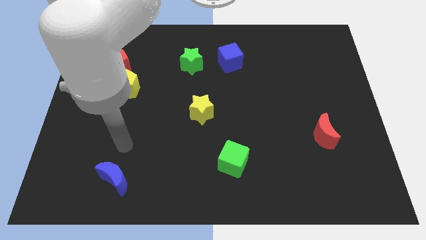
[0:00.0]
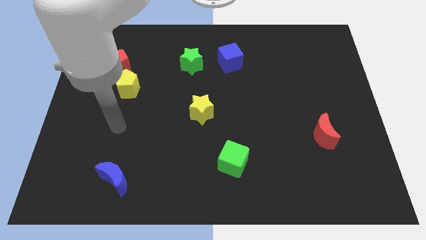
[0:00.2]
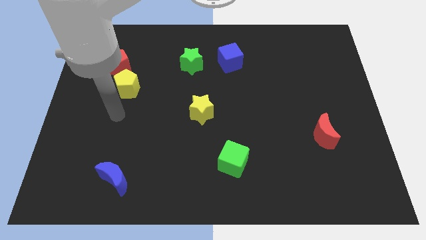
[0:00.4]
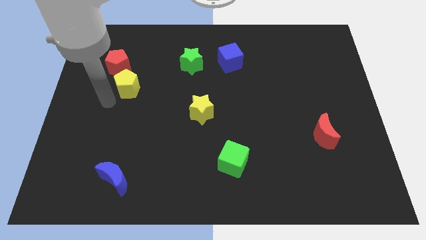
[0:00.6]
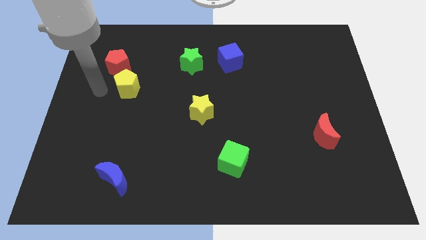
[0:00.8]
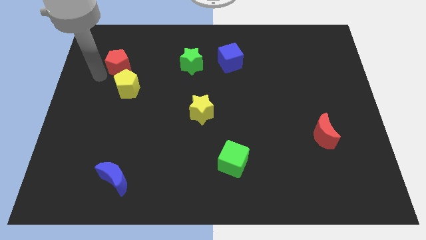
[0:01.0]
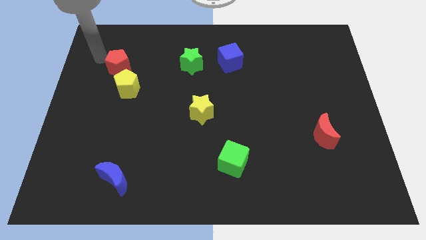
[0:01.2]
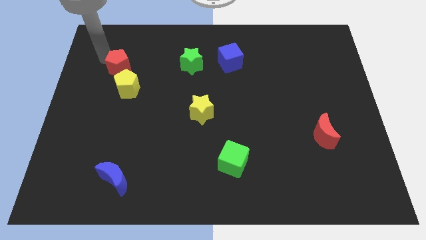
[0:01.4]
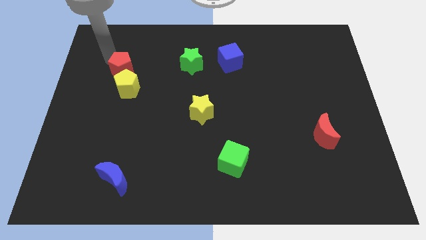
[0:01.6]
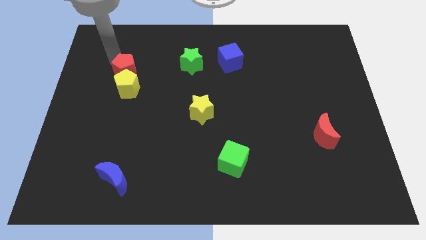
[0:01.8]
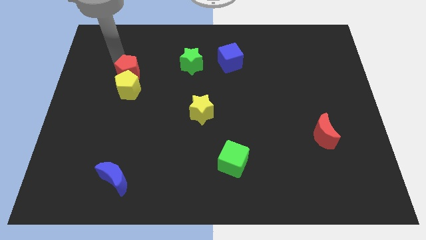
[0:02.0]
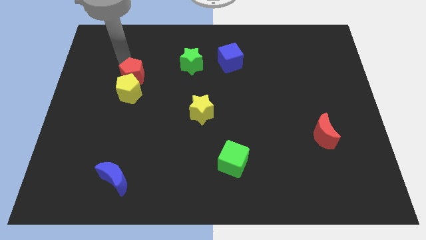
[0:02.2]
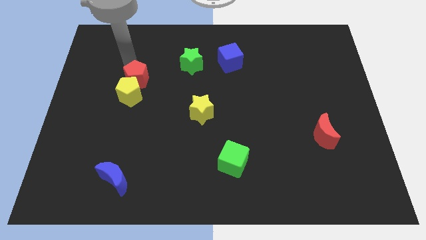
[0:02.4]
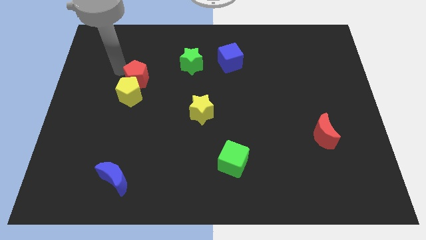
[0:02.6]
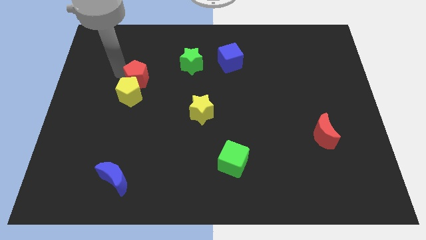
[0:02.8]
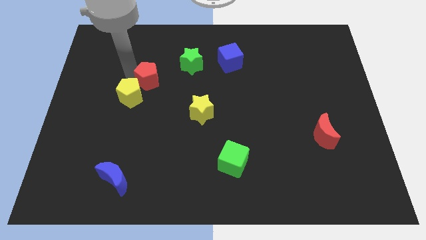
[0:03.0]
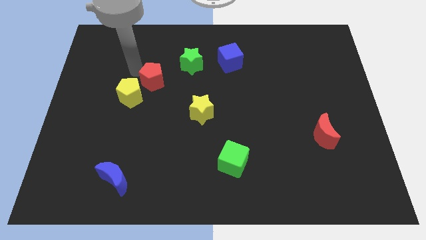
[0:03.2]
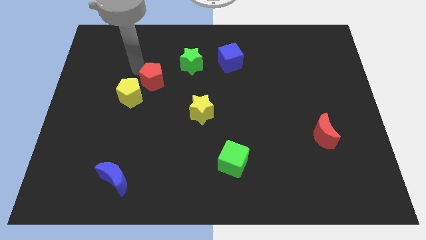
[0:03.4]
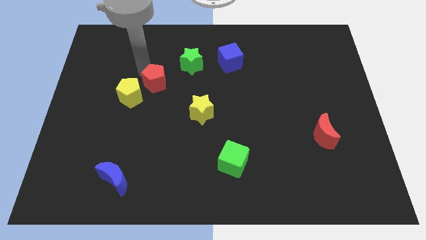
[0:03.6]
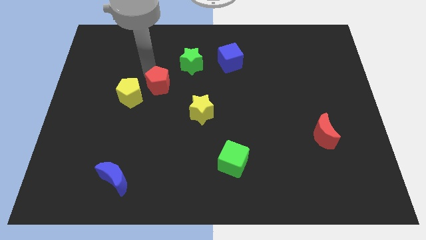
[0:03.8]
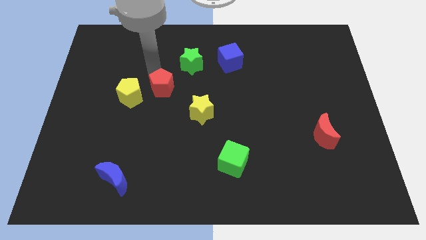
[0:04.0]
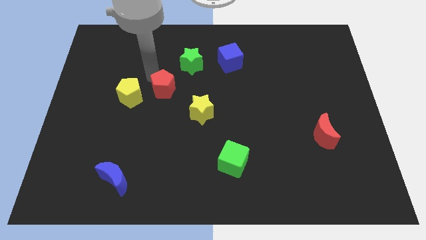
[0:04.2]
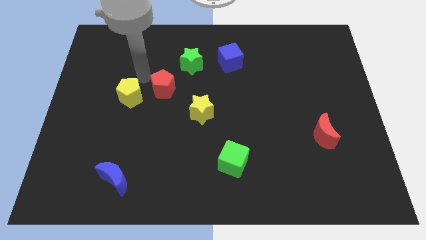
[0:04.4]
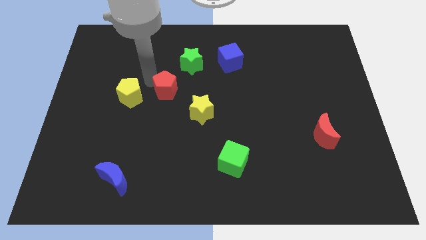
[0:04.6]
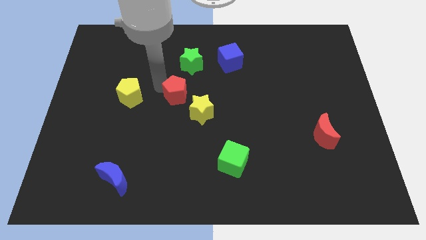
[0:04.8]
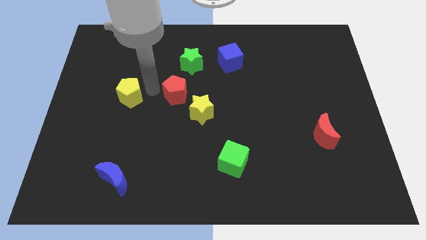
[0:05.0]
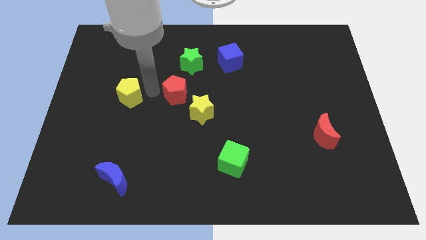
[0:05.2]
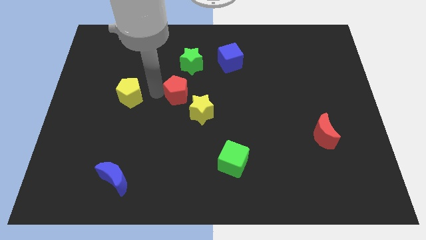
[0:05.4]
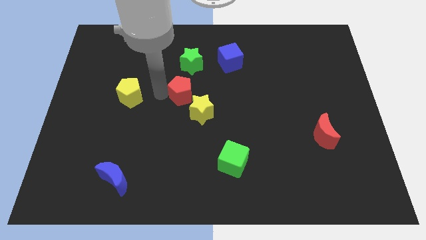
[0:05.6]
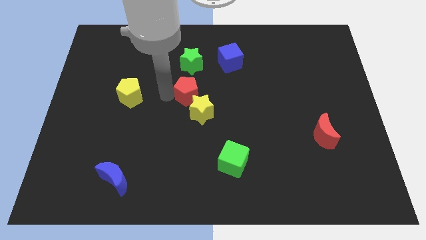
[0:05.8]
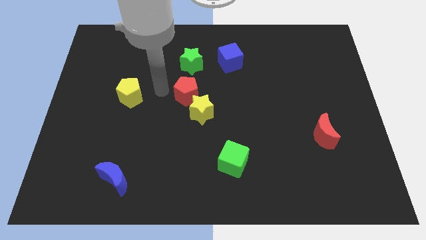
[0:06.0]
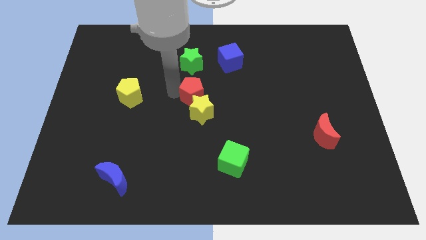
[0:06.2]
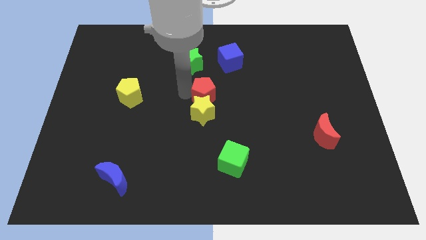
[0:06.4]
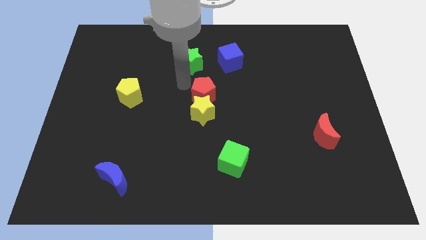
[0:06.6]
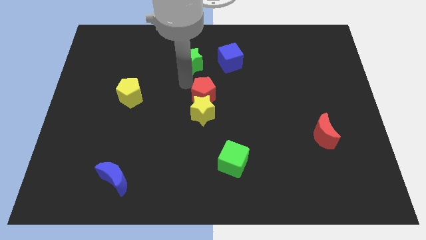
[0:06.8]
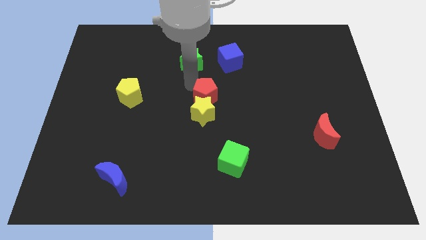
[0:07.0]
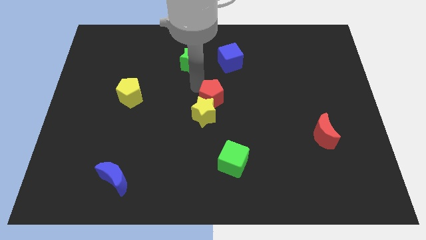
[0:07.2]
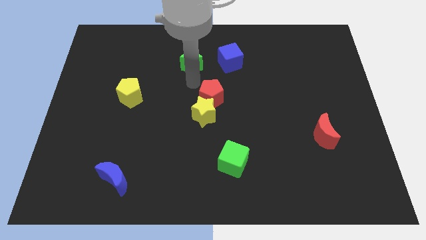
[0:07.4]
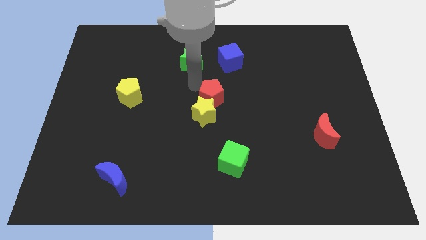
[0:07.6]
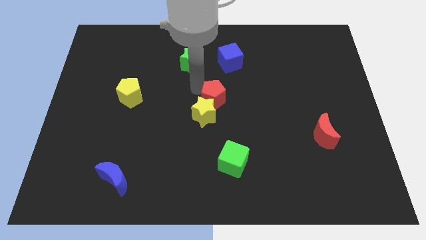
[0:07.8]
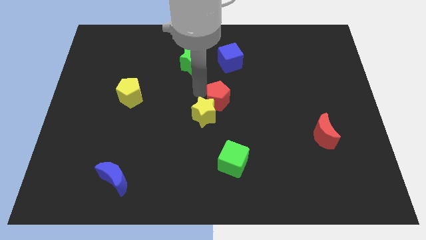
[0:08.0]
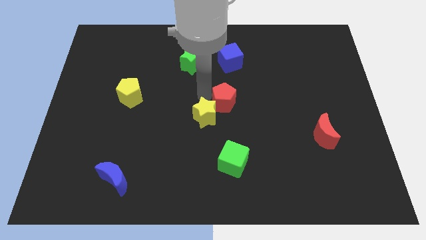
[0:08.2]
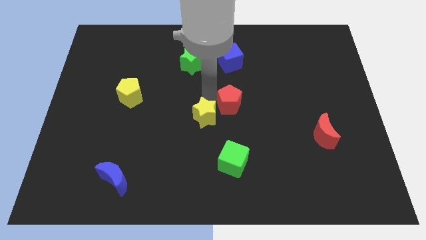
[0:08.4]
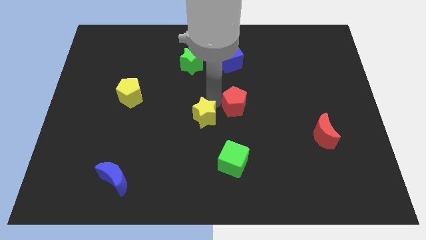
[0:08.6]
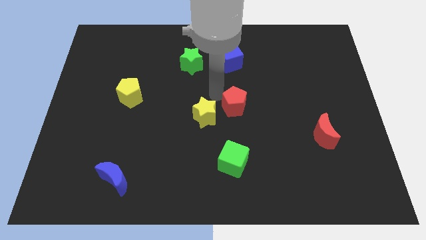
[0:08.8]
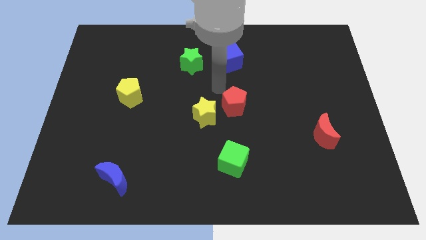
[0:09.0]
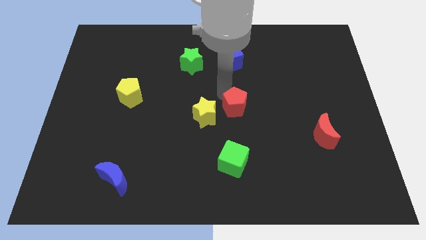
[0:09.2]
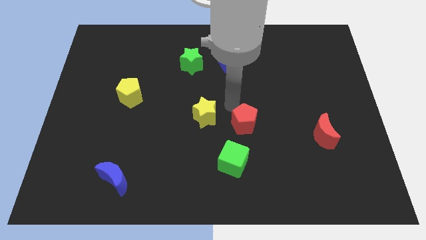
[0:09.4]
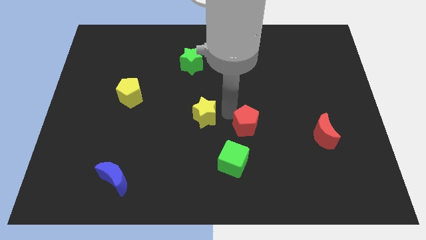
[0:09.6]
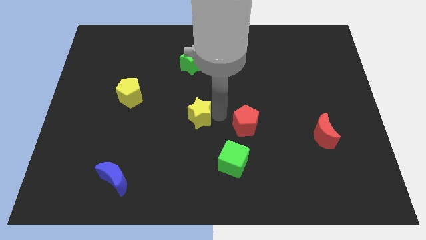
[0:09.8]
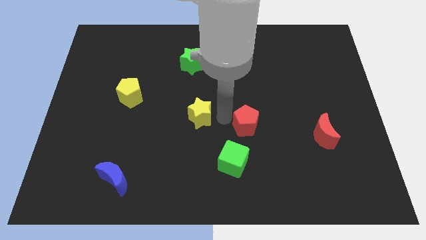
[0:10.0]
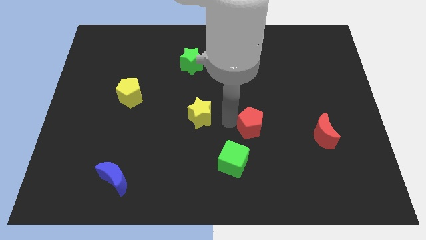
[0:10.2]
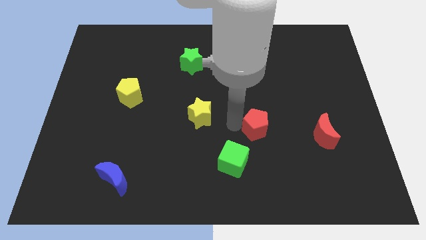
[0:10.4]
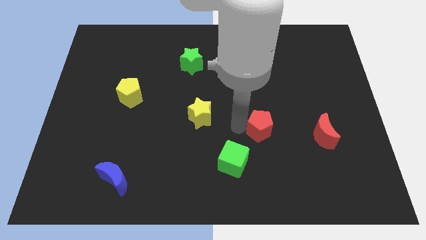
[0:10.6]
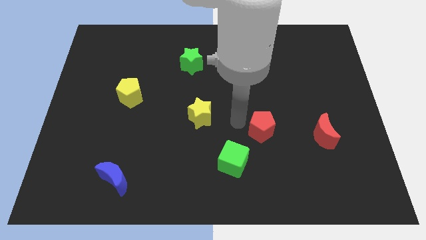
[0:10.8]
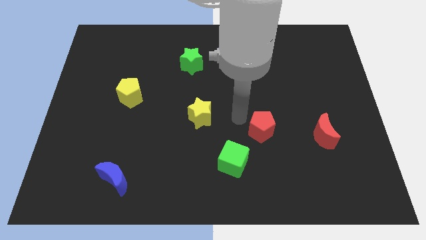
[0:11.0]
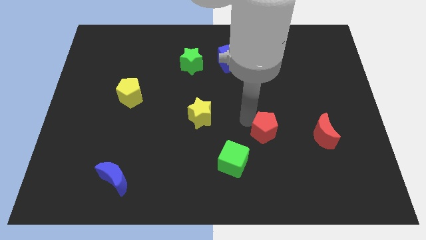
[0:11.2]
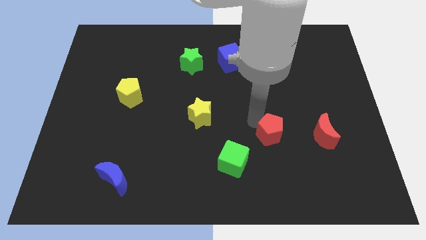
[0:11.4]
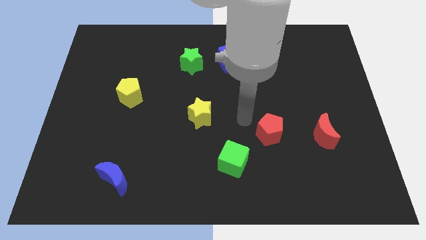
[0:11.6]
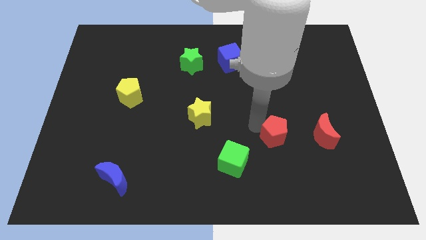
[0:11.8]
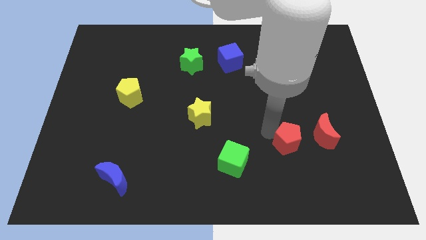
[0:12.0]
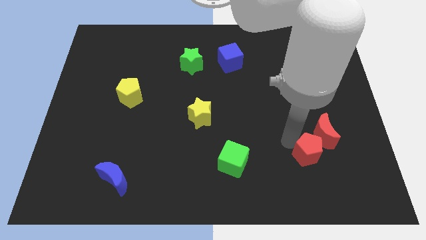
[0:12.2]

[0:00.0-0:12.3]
put the red pentagon to the bottom side of the red moon

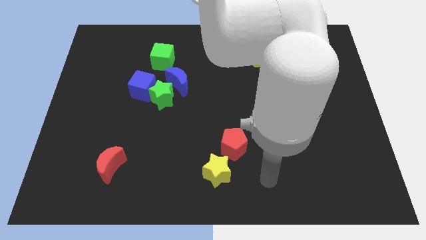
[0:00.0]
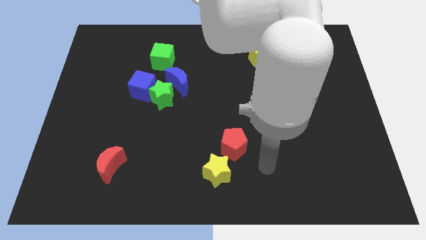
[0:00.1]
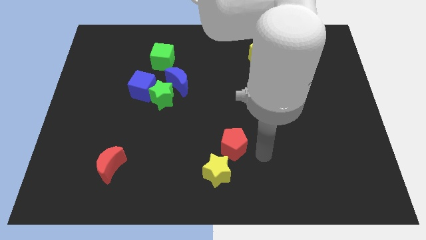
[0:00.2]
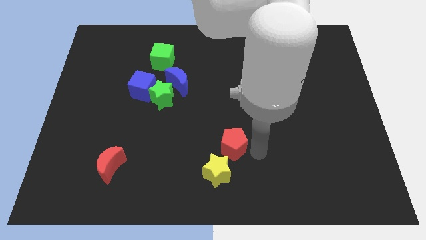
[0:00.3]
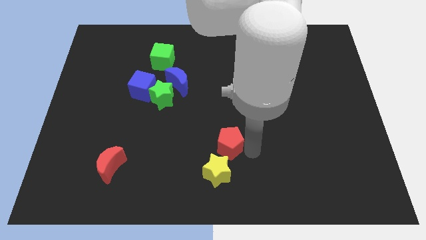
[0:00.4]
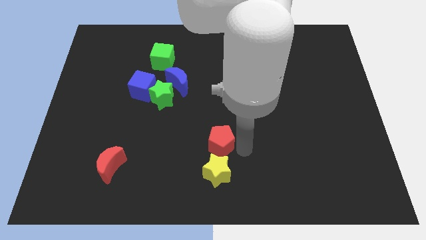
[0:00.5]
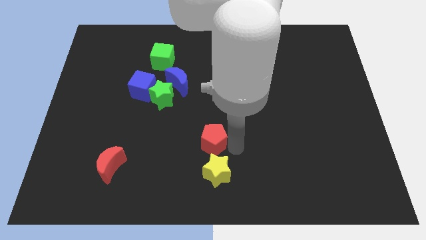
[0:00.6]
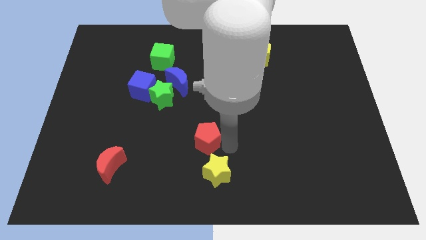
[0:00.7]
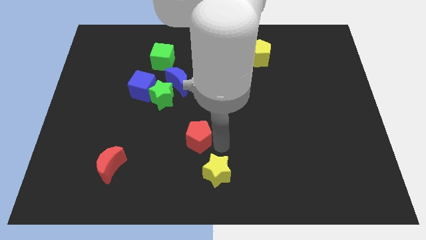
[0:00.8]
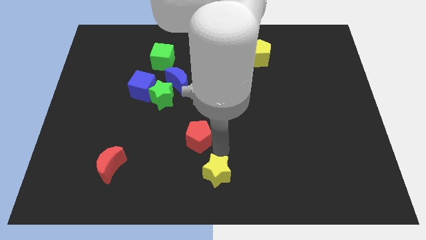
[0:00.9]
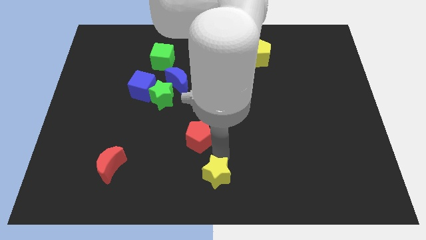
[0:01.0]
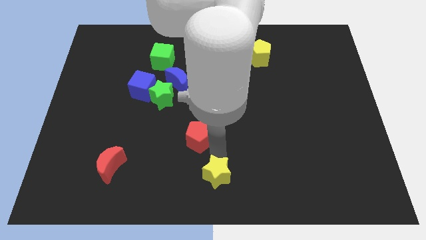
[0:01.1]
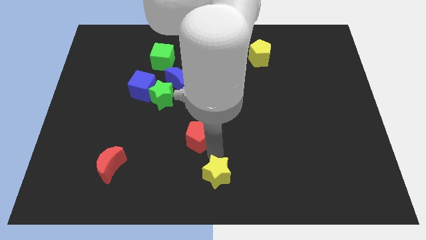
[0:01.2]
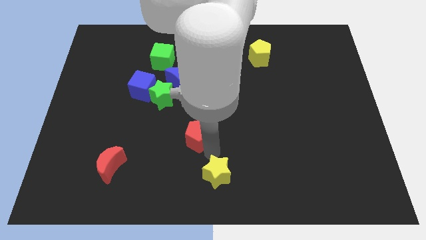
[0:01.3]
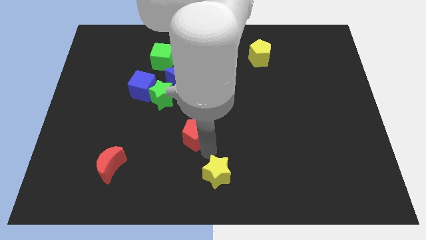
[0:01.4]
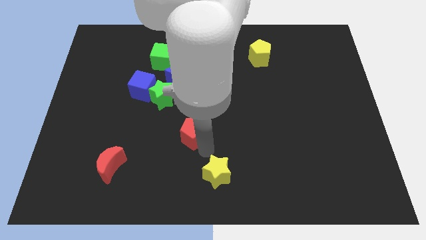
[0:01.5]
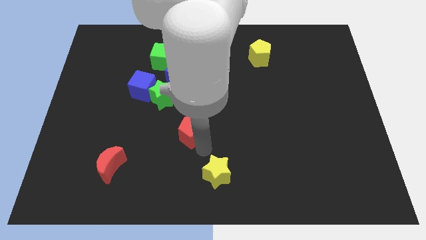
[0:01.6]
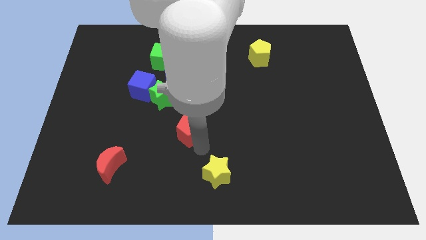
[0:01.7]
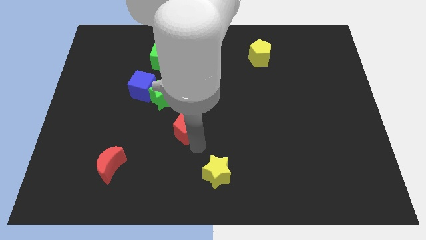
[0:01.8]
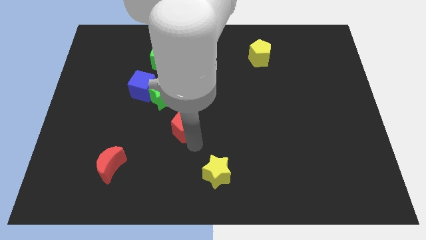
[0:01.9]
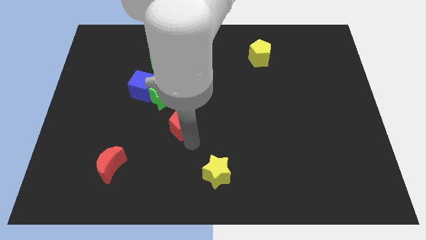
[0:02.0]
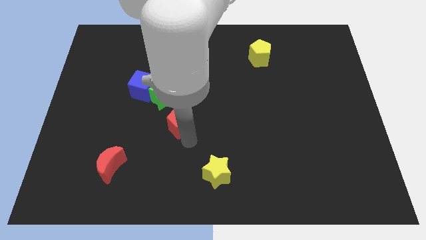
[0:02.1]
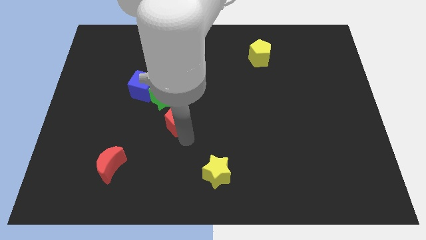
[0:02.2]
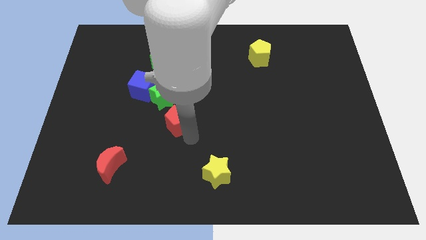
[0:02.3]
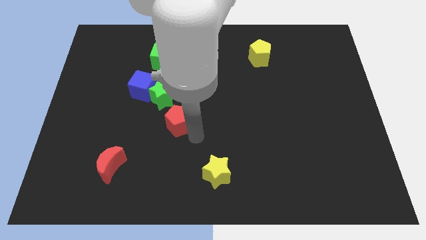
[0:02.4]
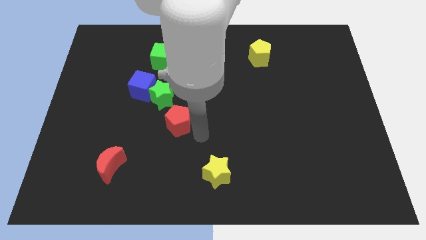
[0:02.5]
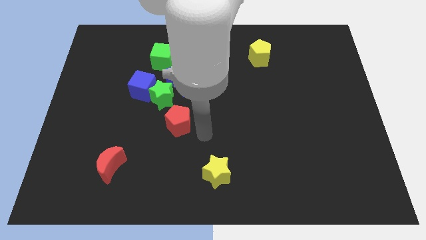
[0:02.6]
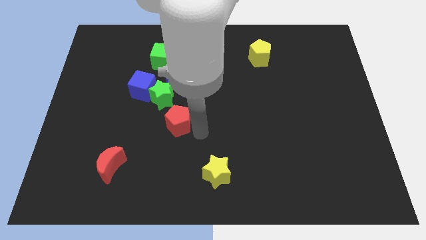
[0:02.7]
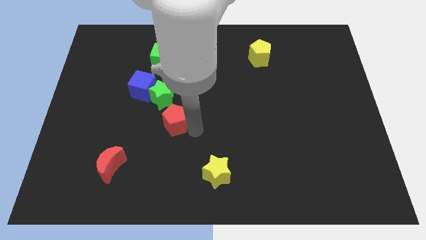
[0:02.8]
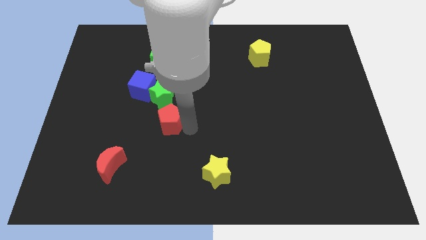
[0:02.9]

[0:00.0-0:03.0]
move the red pentagon diagonally down and to the right of the blue cube
